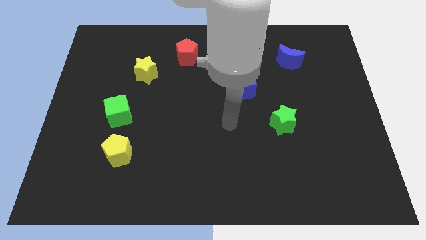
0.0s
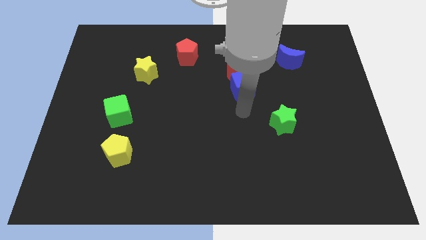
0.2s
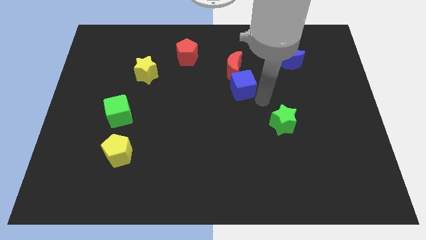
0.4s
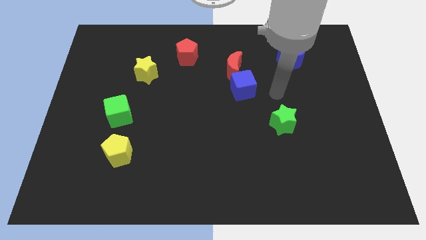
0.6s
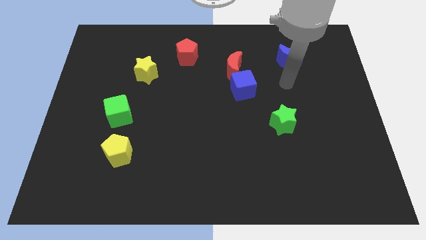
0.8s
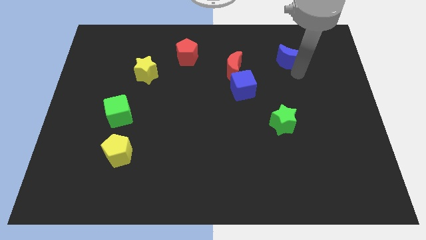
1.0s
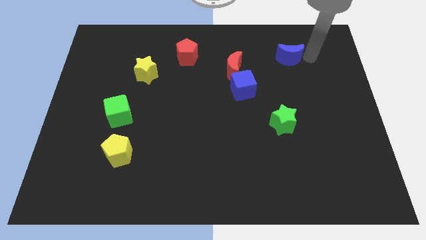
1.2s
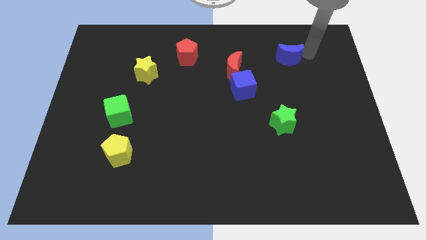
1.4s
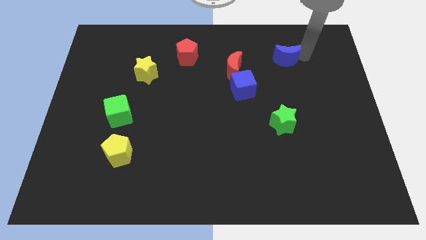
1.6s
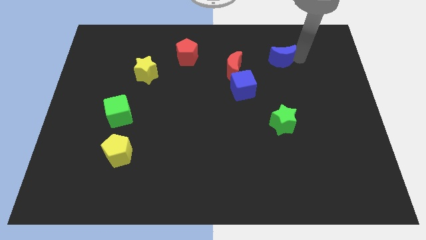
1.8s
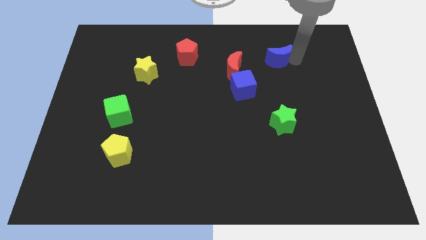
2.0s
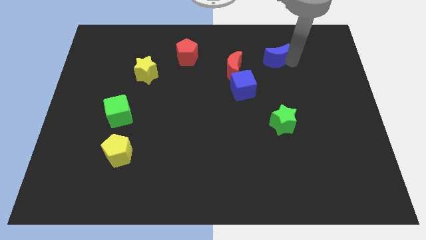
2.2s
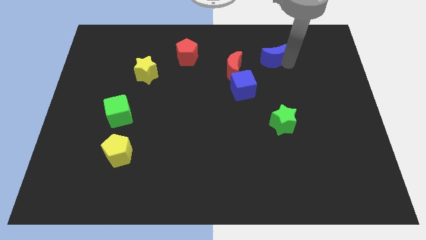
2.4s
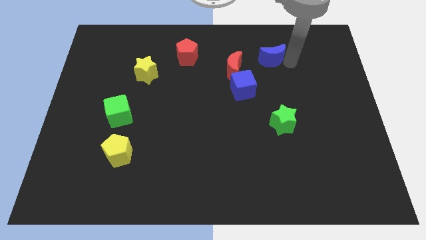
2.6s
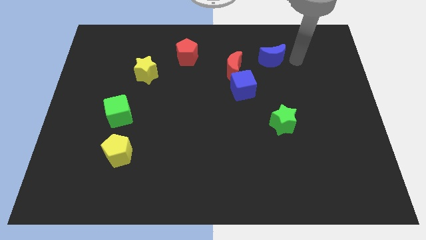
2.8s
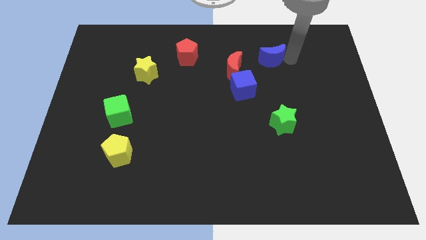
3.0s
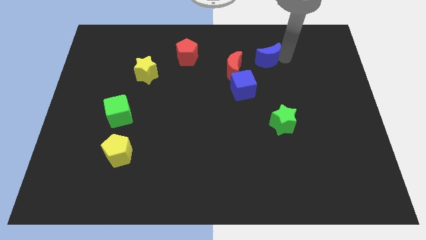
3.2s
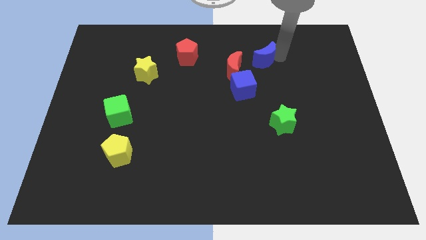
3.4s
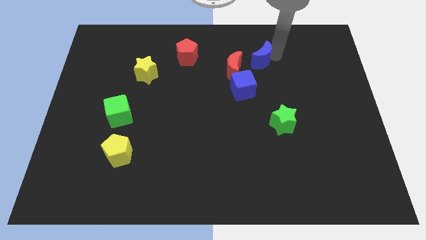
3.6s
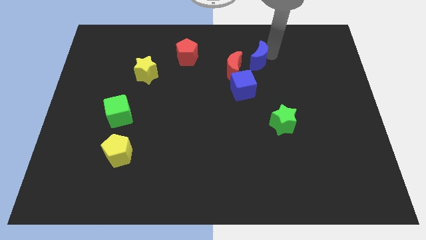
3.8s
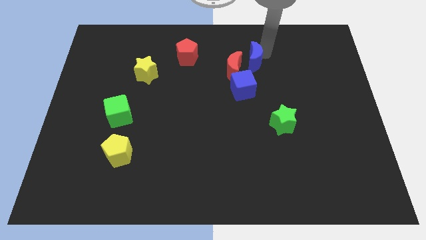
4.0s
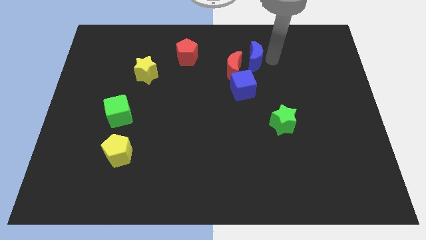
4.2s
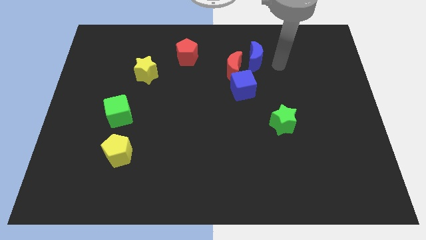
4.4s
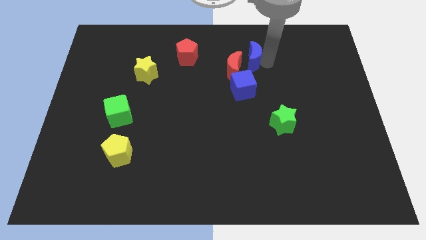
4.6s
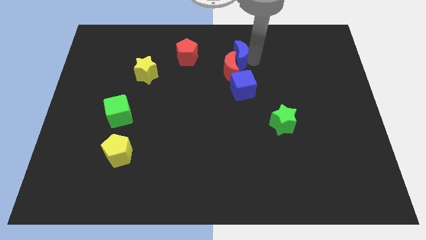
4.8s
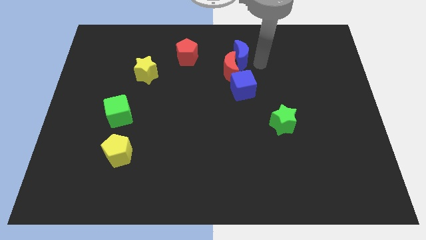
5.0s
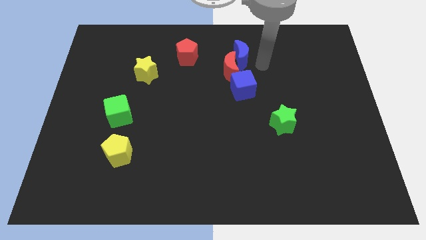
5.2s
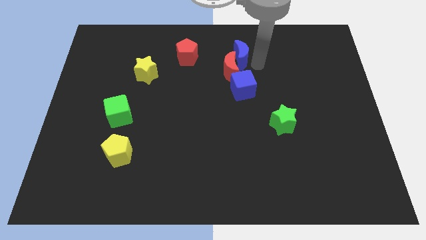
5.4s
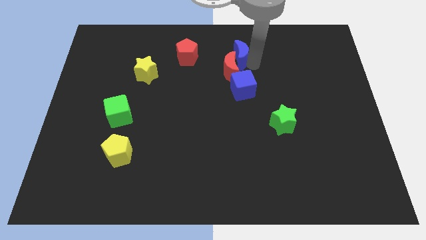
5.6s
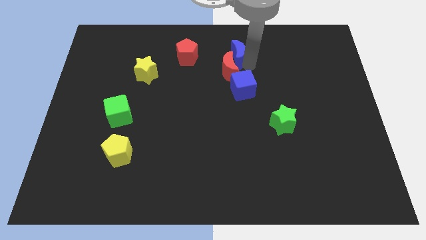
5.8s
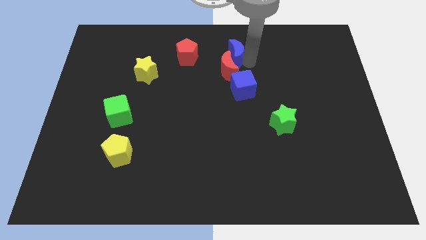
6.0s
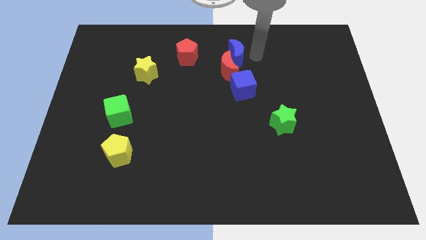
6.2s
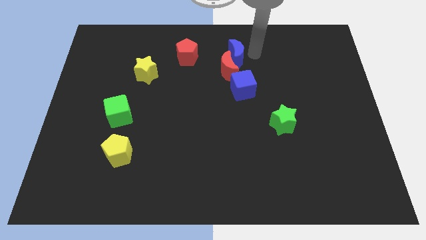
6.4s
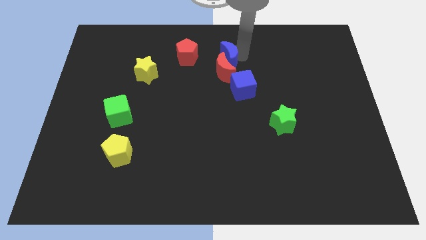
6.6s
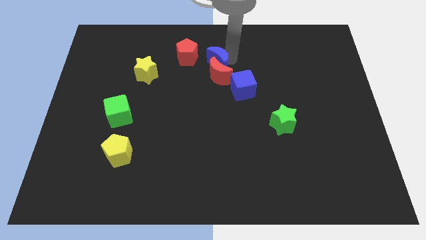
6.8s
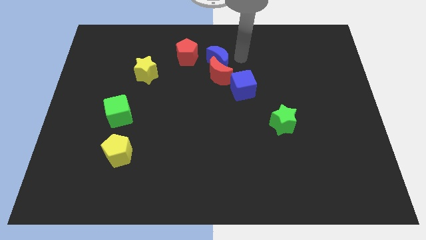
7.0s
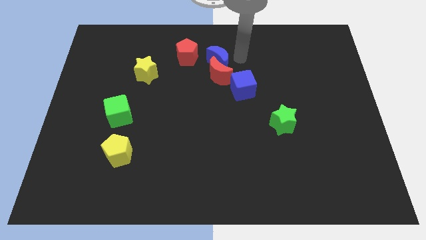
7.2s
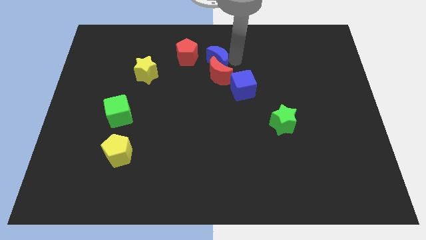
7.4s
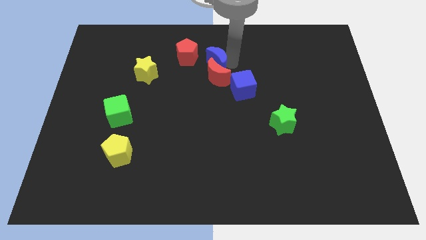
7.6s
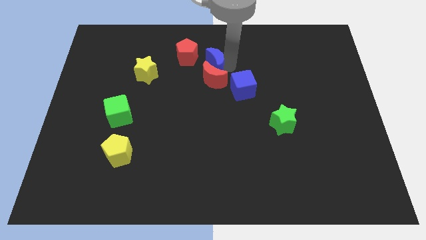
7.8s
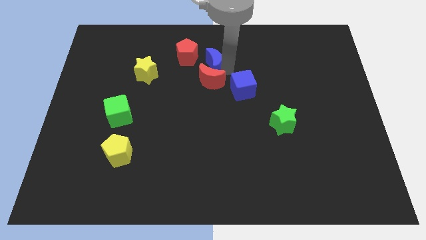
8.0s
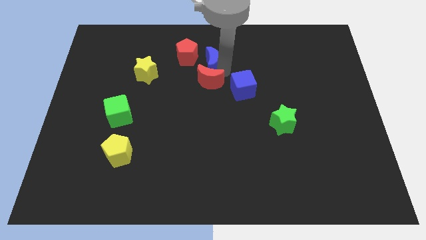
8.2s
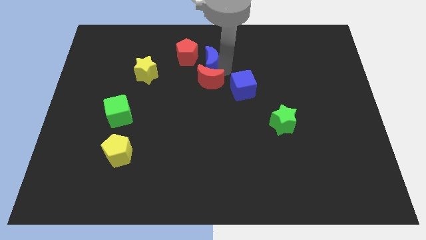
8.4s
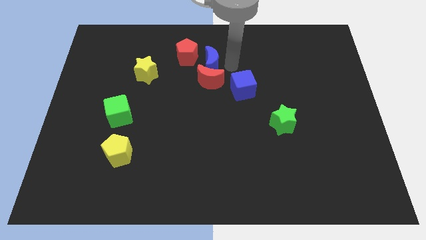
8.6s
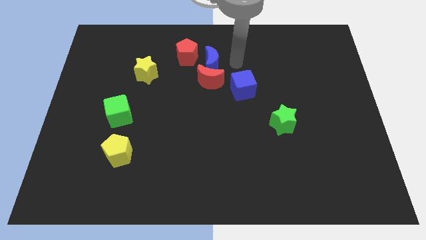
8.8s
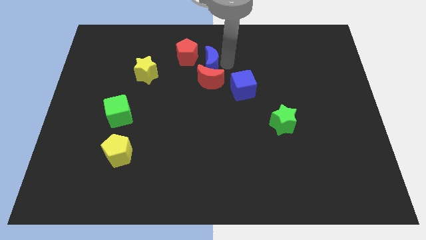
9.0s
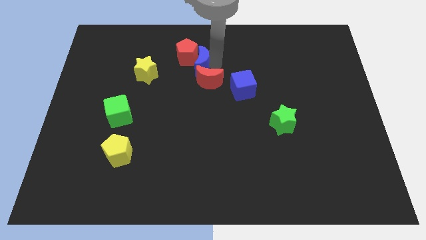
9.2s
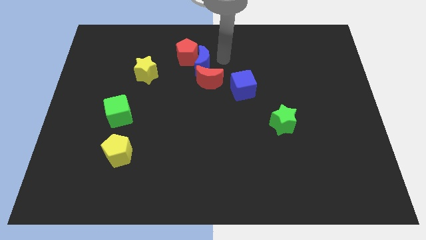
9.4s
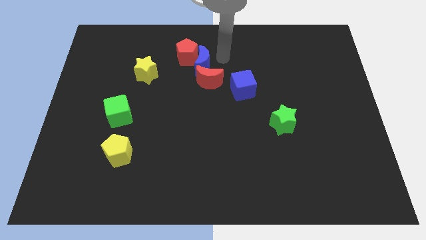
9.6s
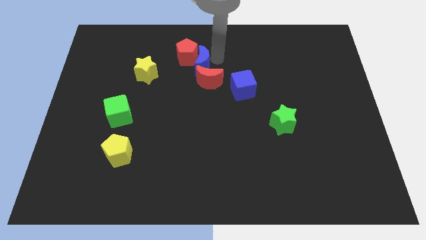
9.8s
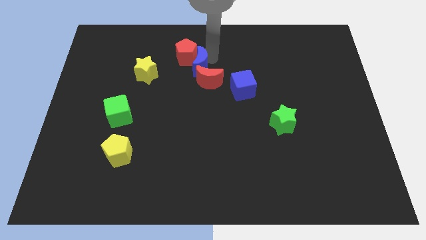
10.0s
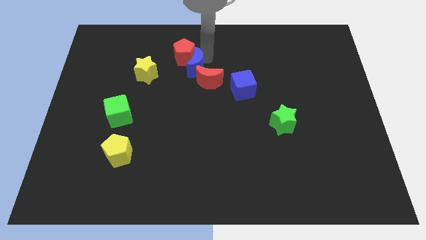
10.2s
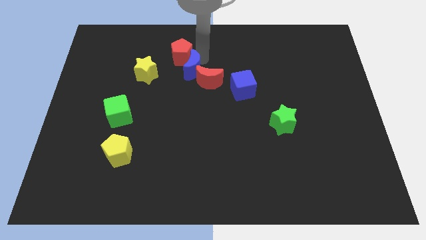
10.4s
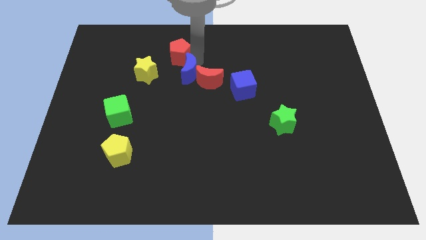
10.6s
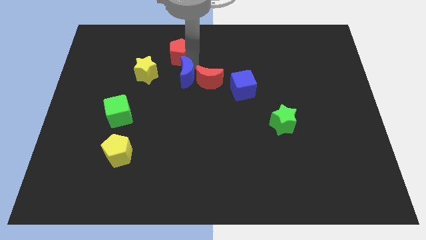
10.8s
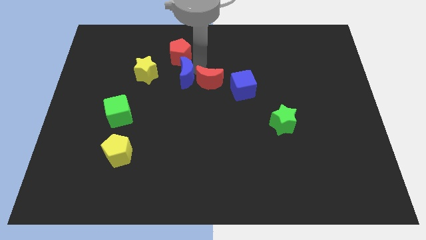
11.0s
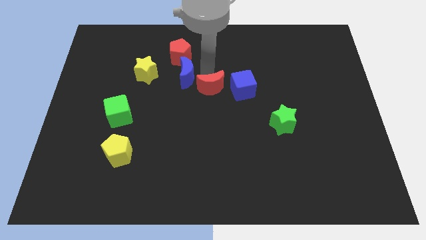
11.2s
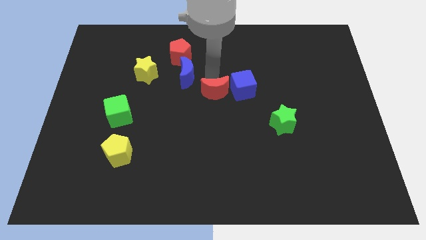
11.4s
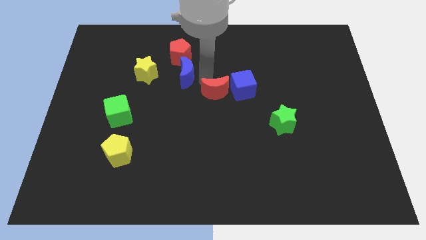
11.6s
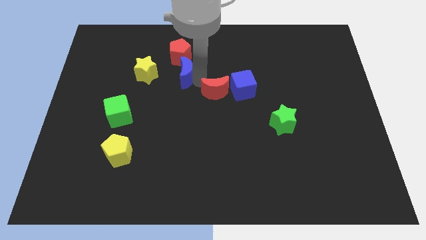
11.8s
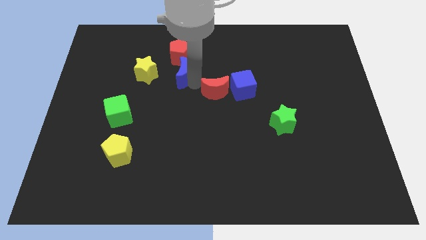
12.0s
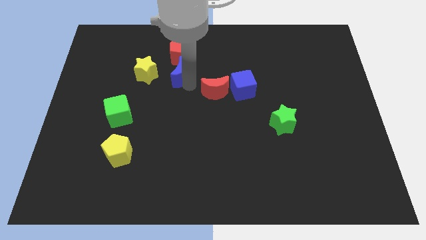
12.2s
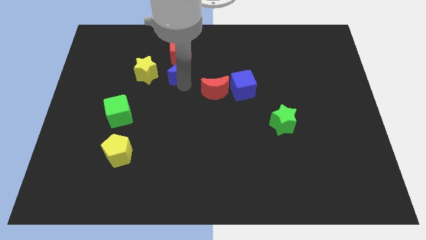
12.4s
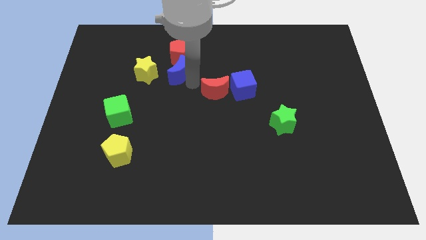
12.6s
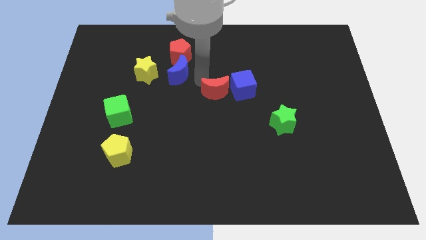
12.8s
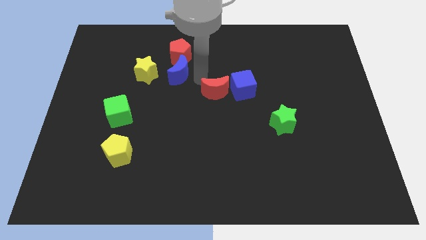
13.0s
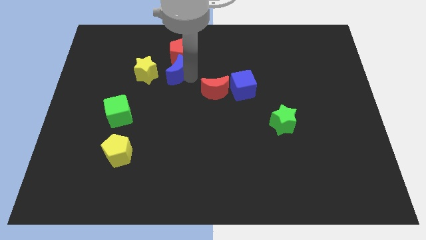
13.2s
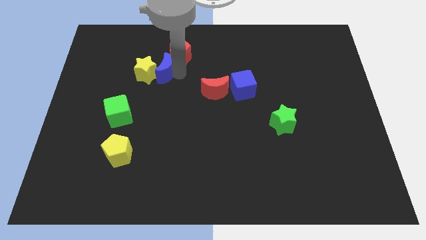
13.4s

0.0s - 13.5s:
slide the blue moon next to the yellow star
